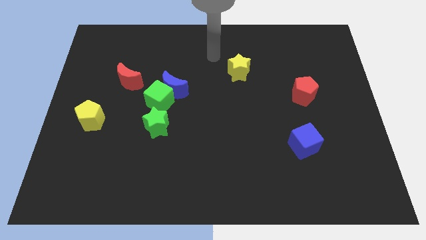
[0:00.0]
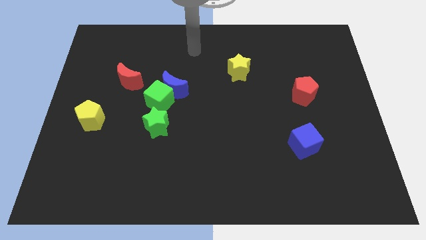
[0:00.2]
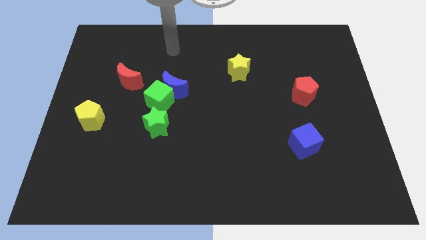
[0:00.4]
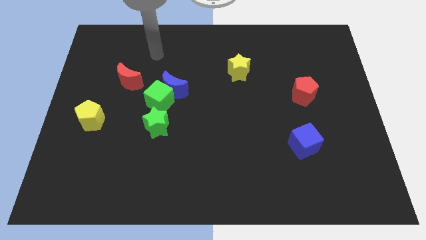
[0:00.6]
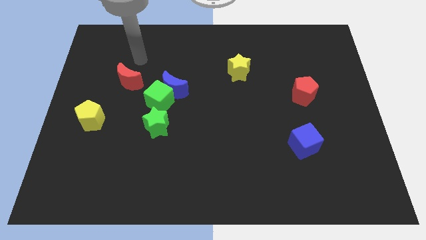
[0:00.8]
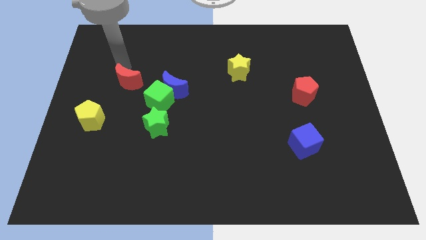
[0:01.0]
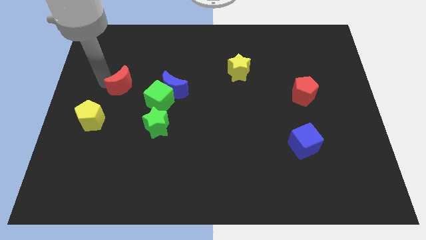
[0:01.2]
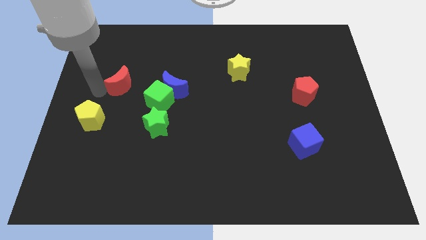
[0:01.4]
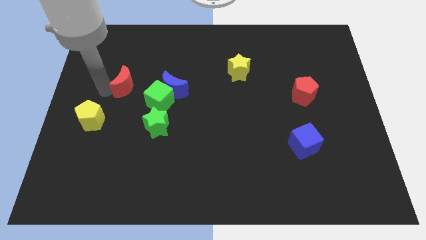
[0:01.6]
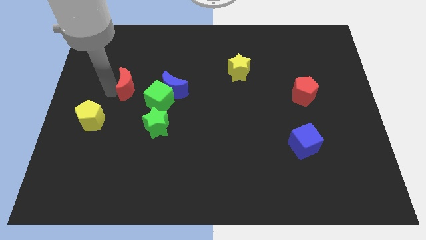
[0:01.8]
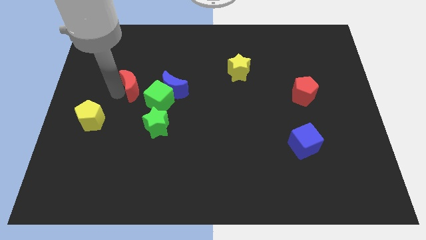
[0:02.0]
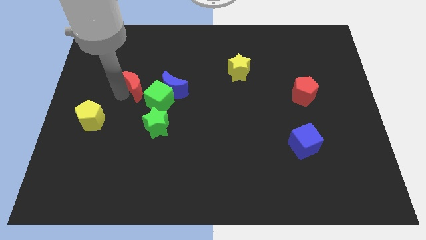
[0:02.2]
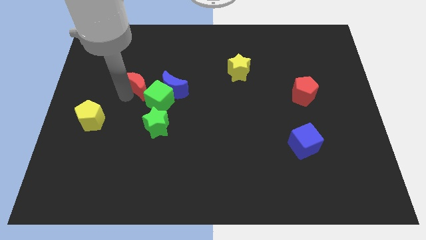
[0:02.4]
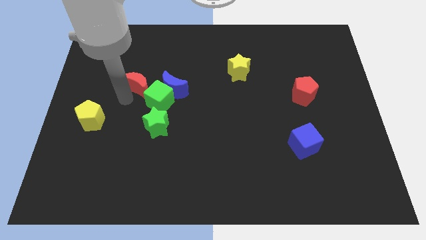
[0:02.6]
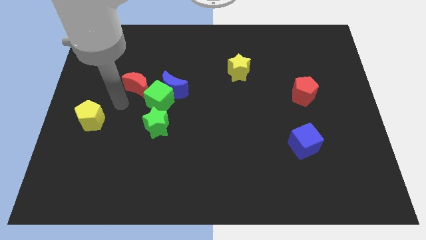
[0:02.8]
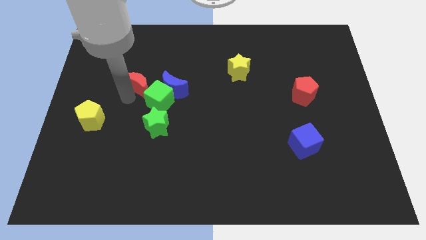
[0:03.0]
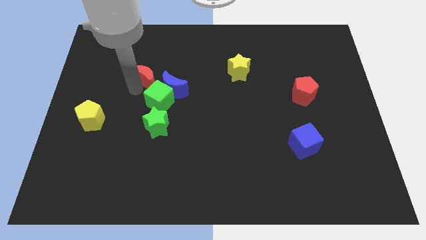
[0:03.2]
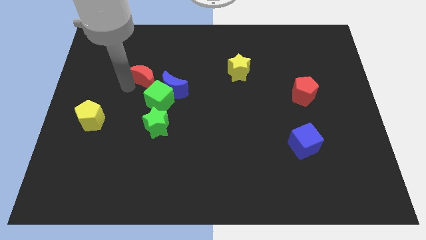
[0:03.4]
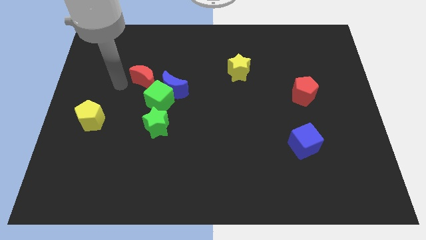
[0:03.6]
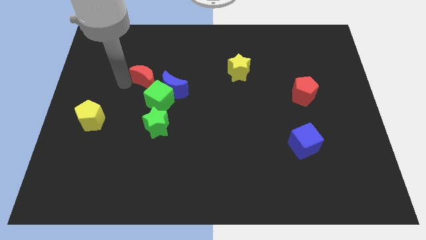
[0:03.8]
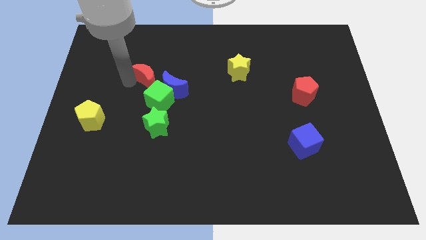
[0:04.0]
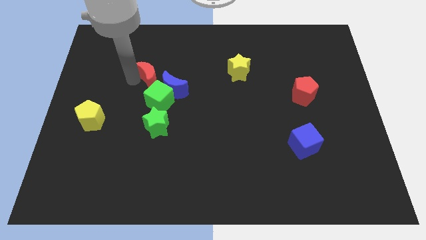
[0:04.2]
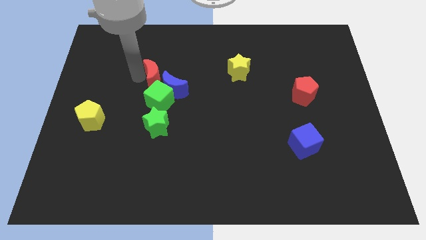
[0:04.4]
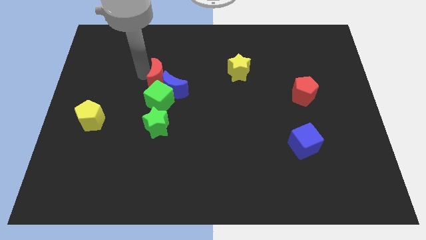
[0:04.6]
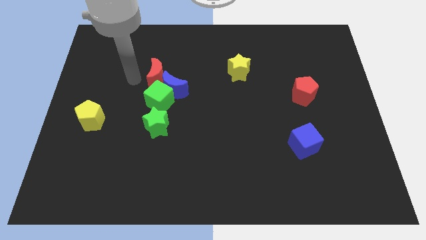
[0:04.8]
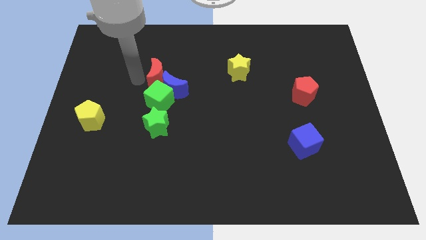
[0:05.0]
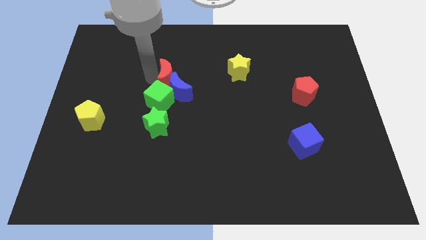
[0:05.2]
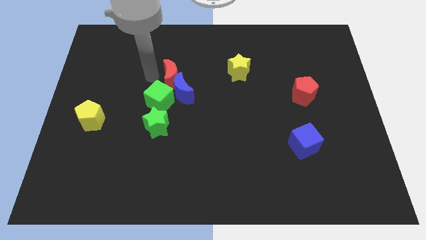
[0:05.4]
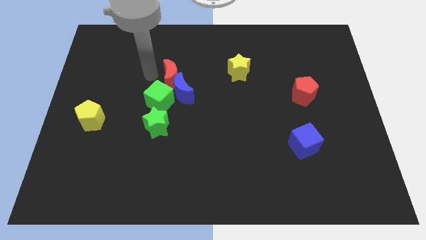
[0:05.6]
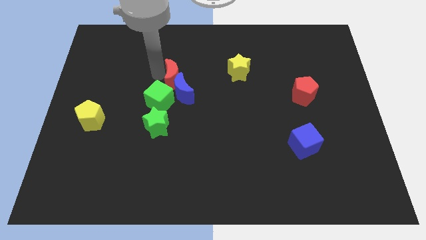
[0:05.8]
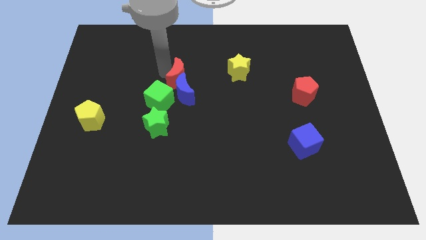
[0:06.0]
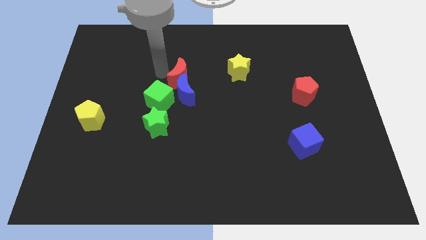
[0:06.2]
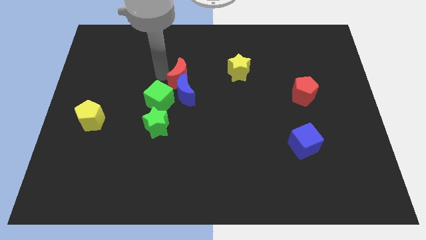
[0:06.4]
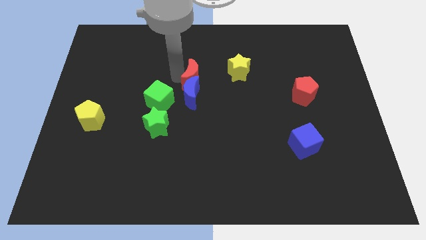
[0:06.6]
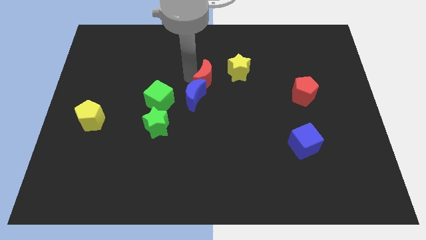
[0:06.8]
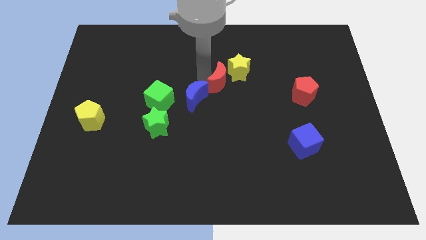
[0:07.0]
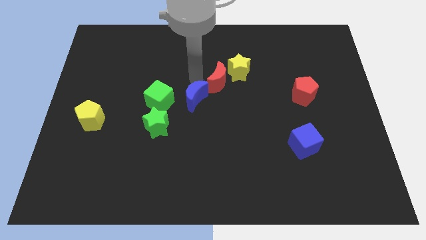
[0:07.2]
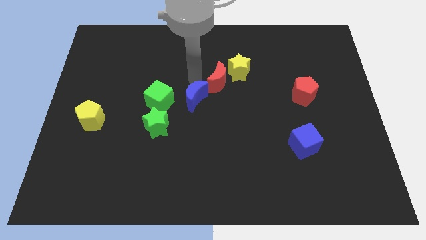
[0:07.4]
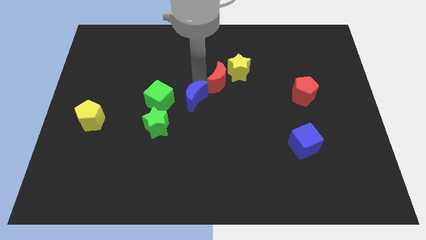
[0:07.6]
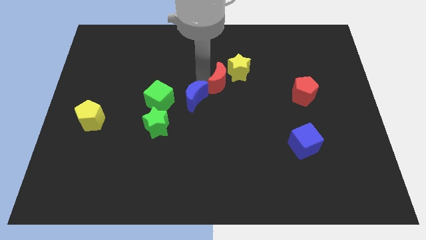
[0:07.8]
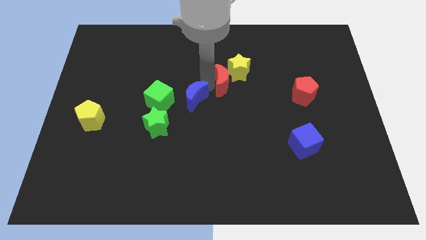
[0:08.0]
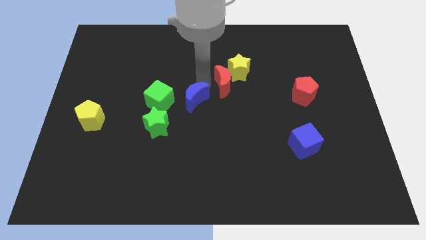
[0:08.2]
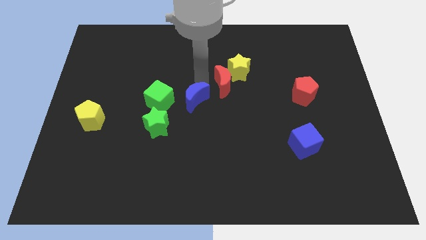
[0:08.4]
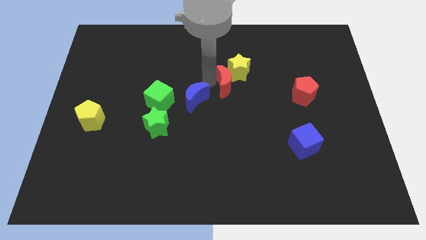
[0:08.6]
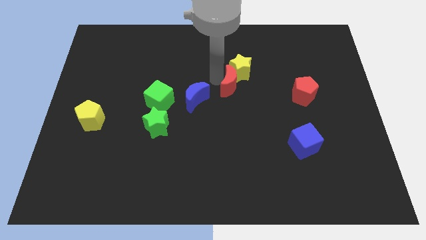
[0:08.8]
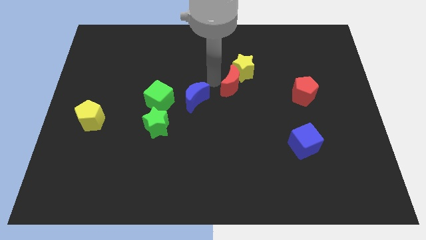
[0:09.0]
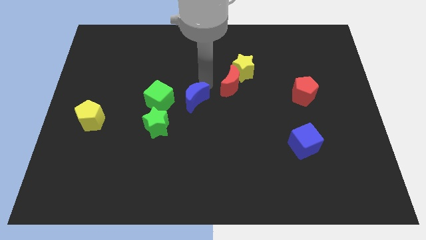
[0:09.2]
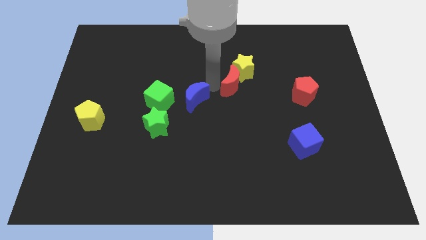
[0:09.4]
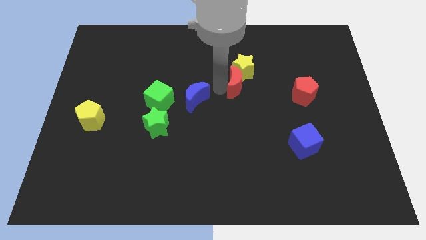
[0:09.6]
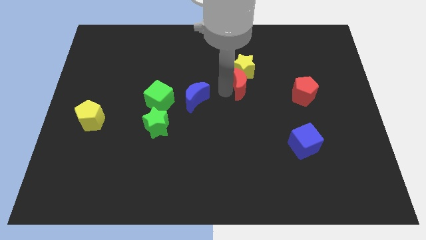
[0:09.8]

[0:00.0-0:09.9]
put the red moon to the bottom right of the yellow star

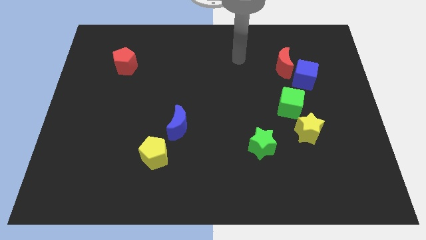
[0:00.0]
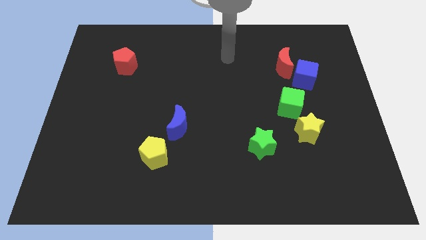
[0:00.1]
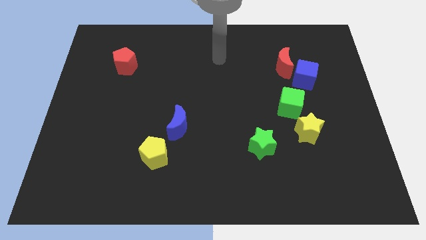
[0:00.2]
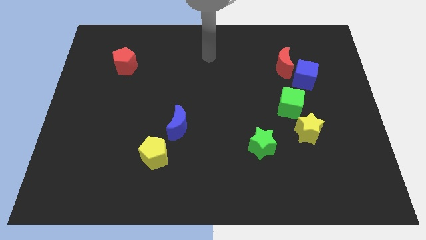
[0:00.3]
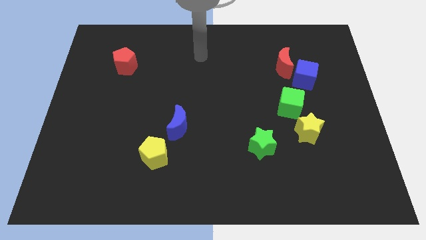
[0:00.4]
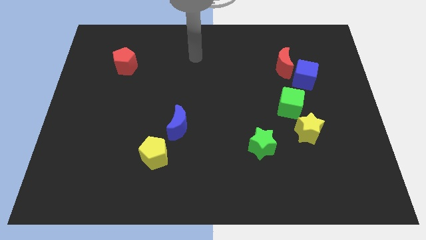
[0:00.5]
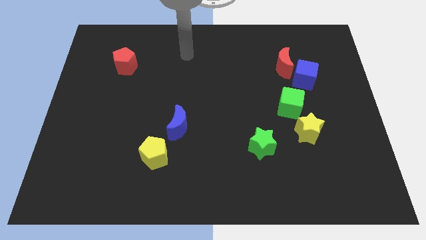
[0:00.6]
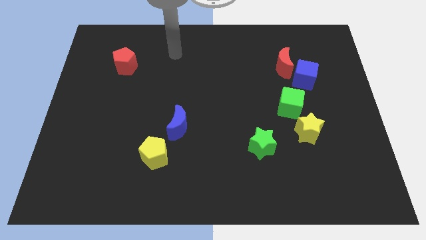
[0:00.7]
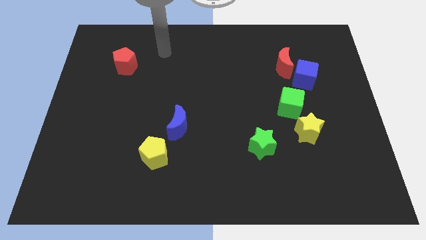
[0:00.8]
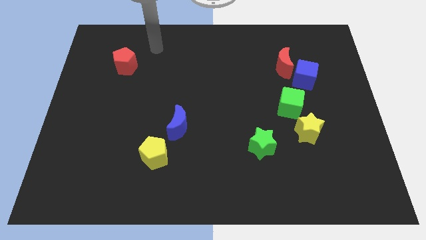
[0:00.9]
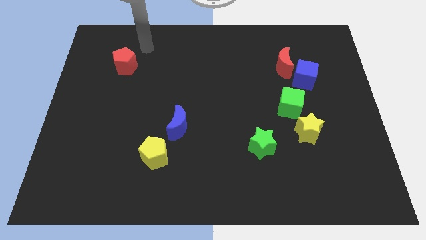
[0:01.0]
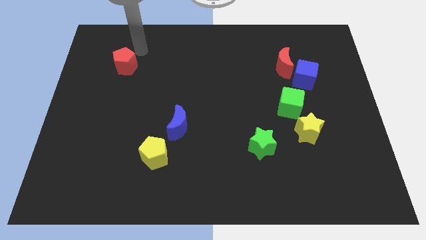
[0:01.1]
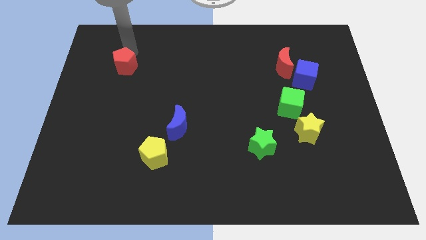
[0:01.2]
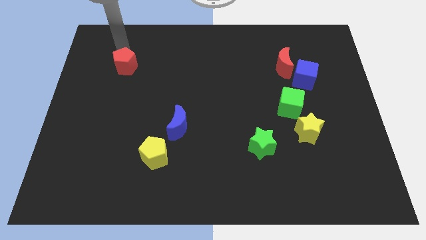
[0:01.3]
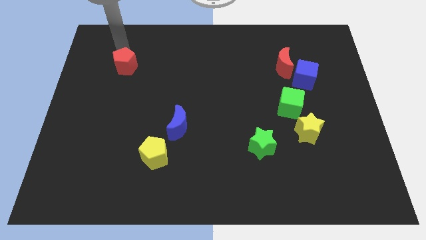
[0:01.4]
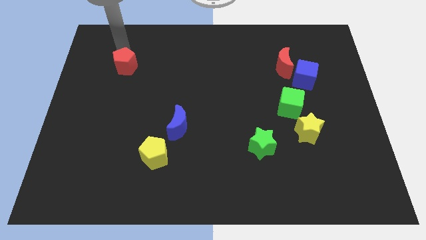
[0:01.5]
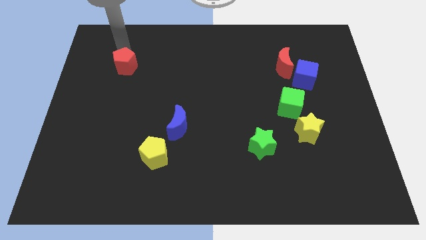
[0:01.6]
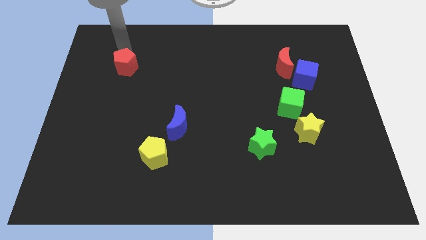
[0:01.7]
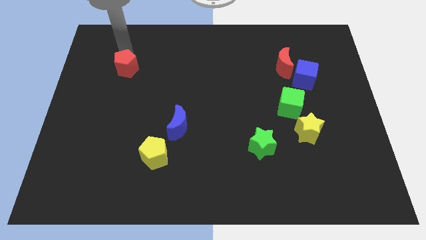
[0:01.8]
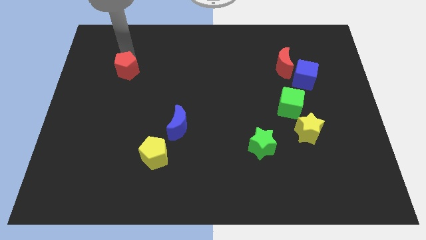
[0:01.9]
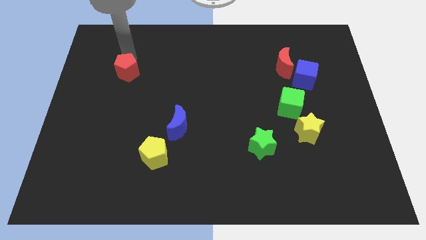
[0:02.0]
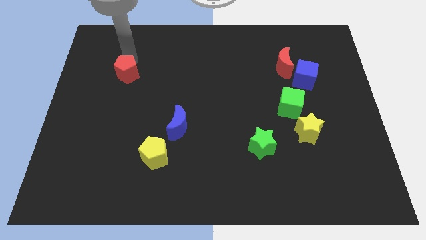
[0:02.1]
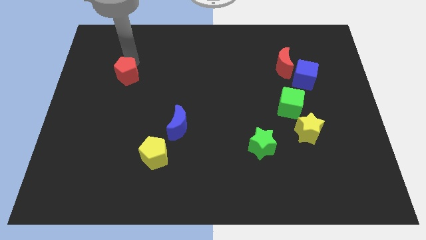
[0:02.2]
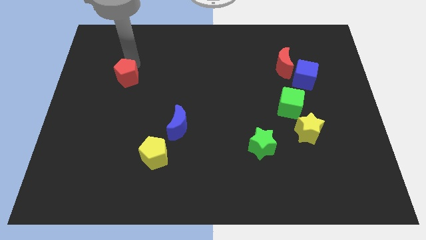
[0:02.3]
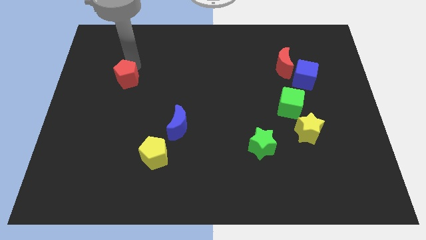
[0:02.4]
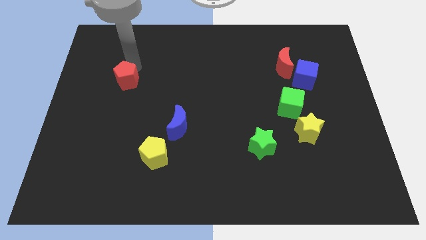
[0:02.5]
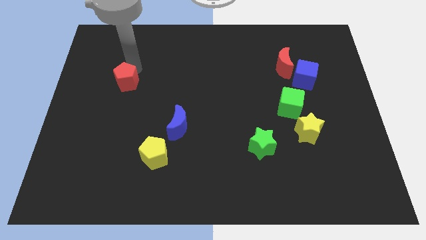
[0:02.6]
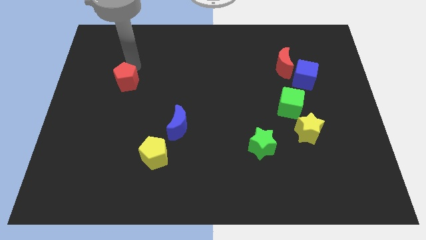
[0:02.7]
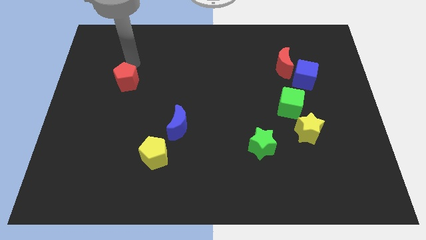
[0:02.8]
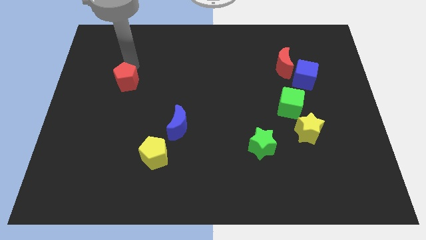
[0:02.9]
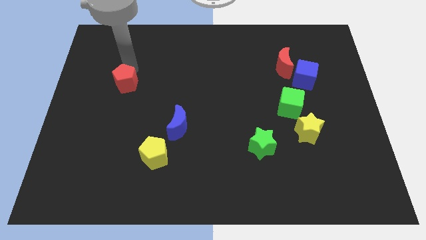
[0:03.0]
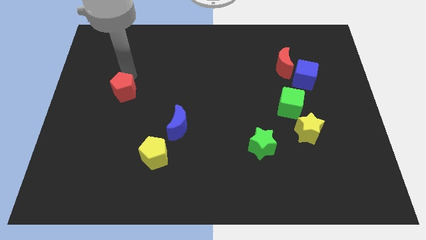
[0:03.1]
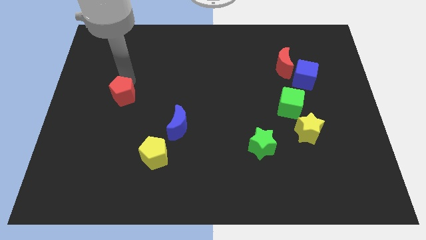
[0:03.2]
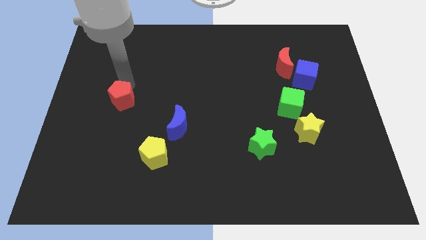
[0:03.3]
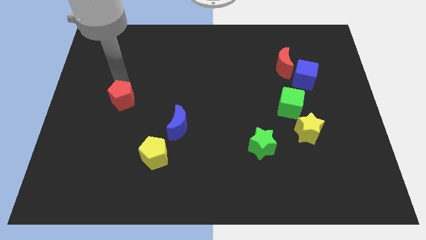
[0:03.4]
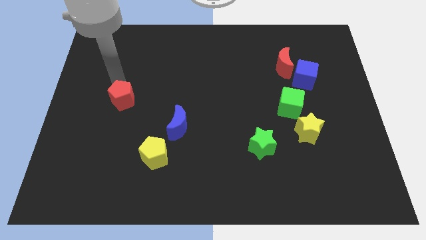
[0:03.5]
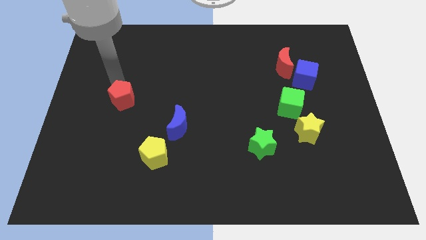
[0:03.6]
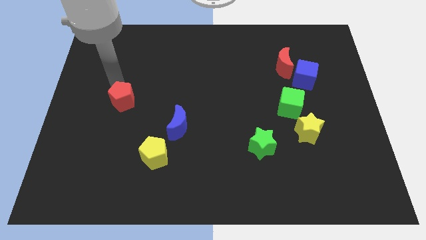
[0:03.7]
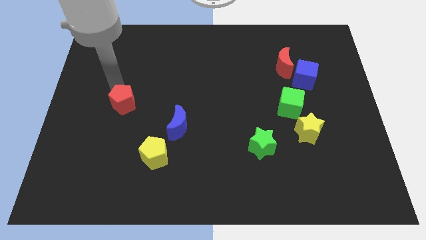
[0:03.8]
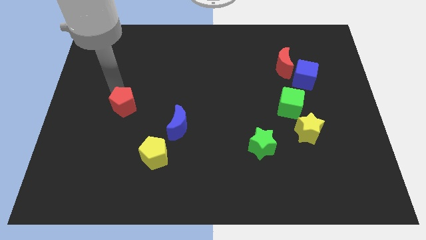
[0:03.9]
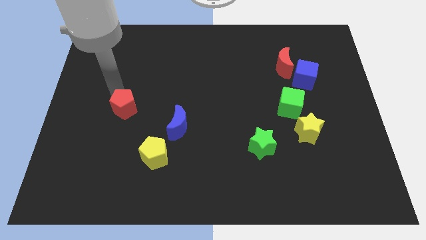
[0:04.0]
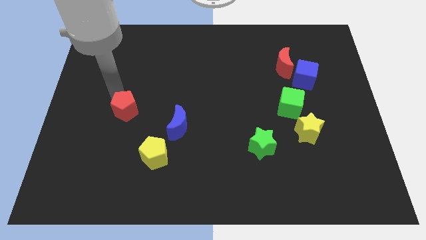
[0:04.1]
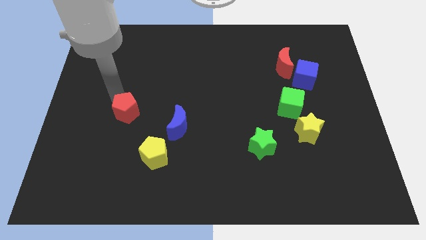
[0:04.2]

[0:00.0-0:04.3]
slide the red pentagon just left of the blue moon
